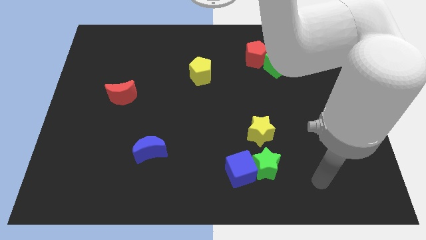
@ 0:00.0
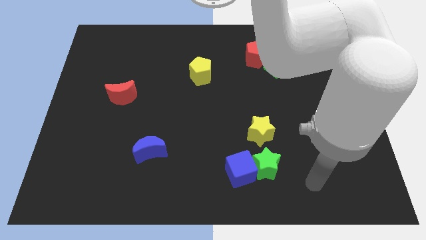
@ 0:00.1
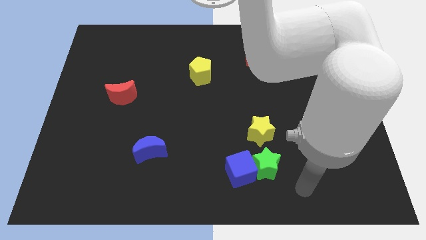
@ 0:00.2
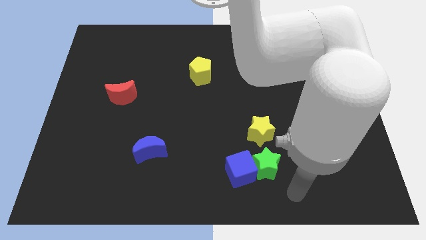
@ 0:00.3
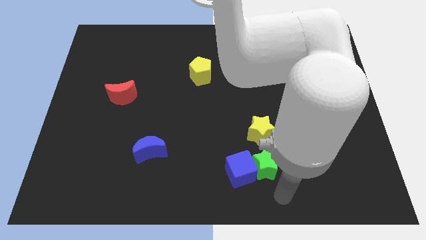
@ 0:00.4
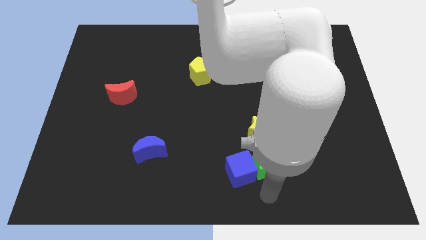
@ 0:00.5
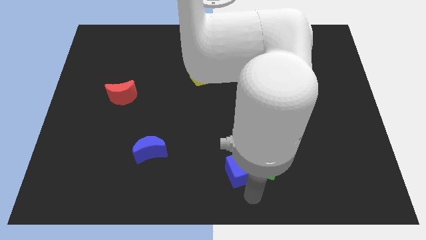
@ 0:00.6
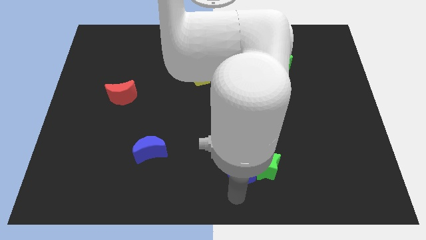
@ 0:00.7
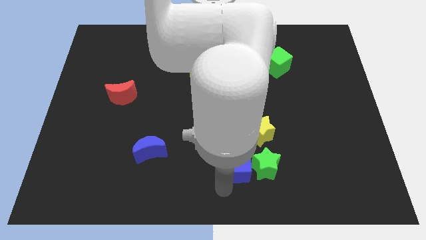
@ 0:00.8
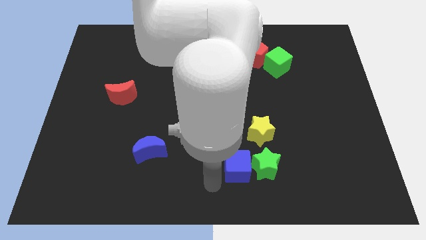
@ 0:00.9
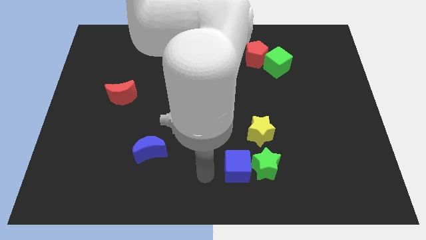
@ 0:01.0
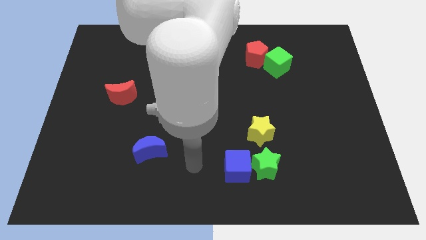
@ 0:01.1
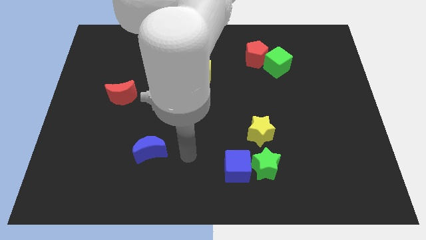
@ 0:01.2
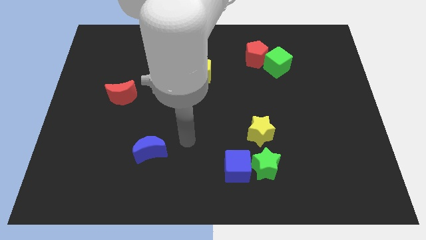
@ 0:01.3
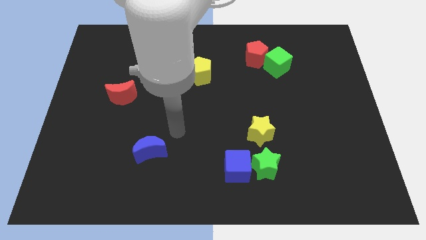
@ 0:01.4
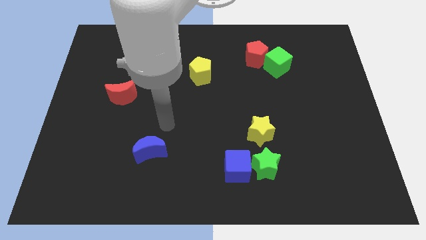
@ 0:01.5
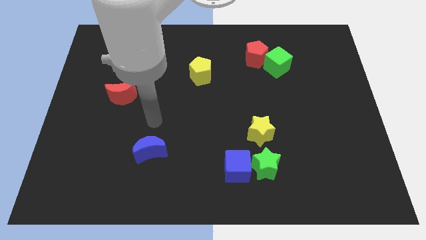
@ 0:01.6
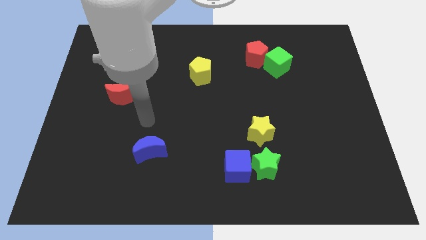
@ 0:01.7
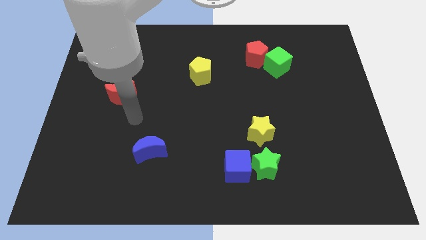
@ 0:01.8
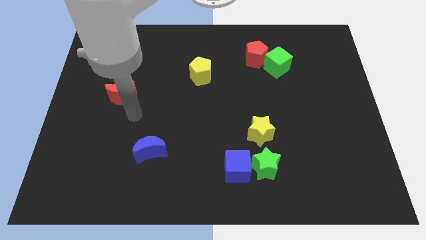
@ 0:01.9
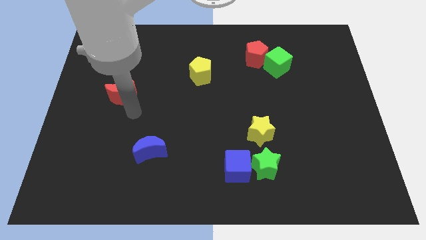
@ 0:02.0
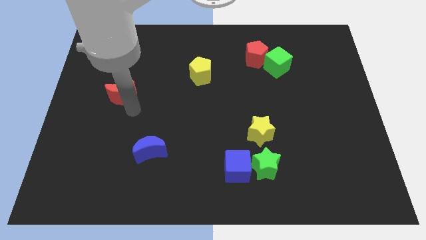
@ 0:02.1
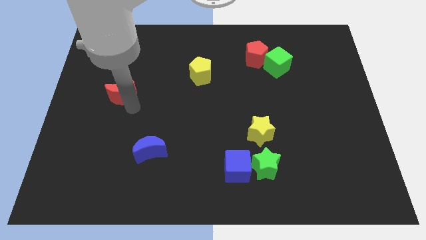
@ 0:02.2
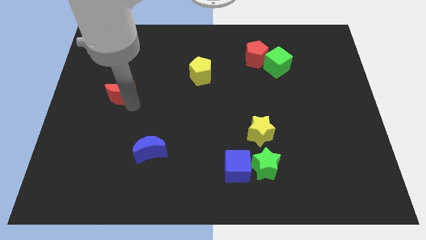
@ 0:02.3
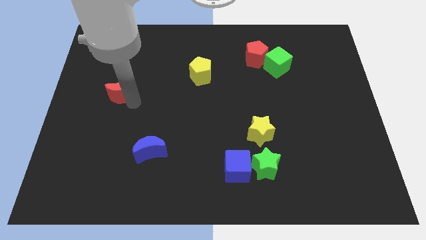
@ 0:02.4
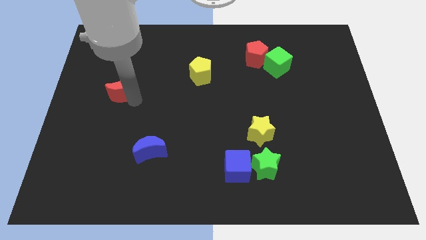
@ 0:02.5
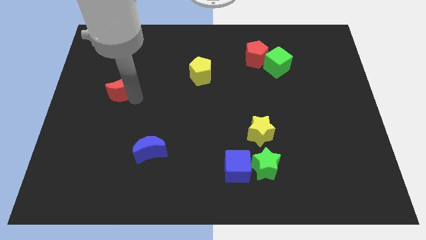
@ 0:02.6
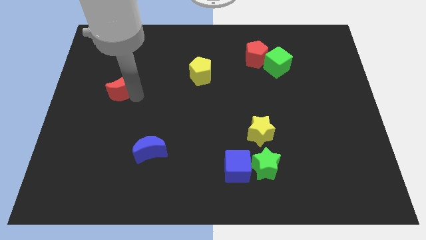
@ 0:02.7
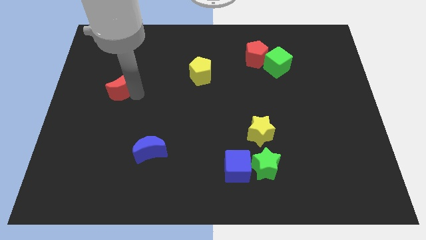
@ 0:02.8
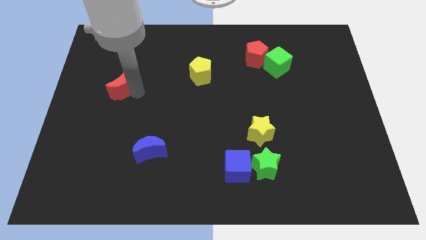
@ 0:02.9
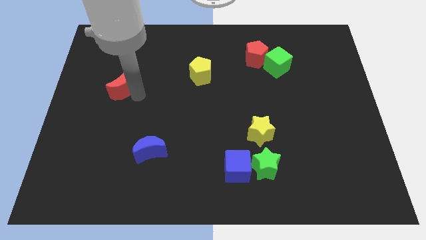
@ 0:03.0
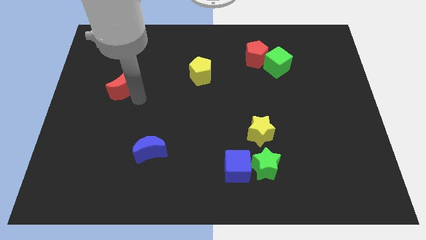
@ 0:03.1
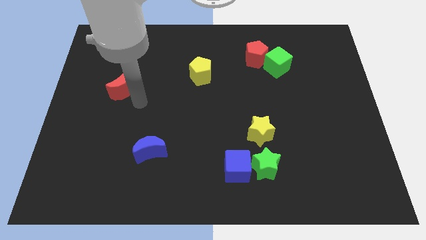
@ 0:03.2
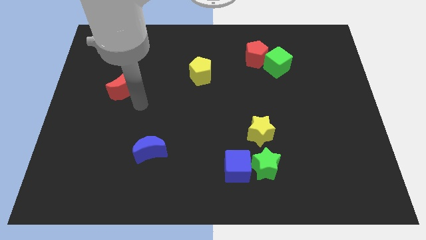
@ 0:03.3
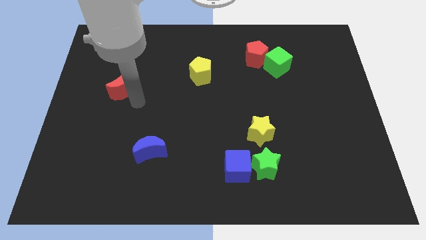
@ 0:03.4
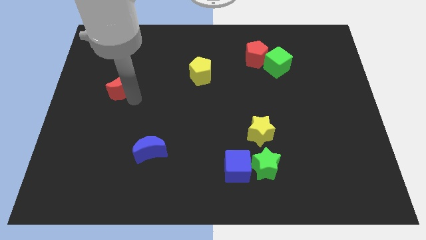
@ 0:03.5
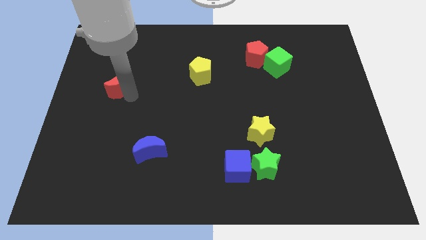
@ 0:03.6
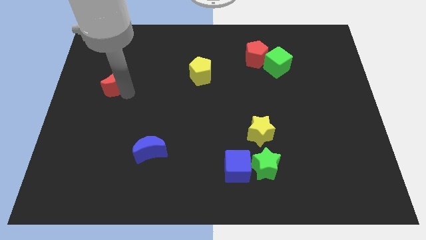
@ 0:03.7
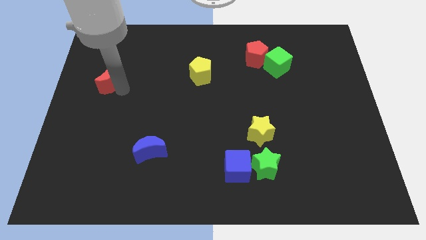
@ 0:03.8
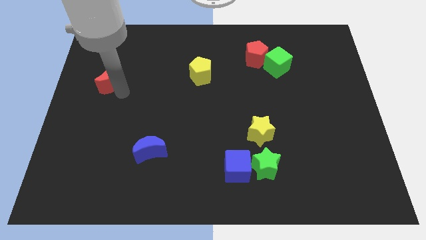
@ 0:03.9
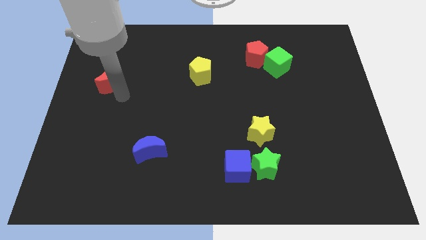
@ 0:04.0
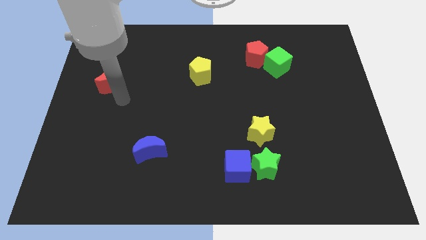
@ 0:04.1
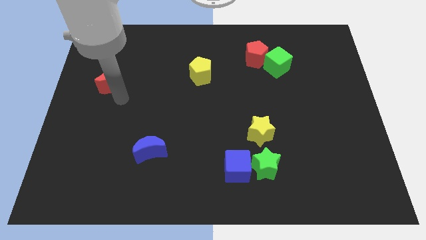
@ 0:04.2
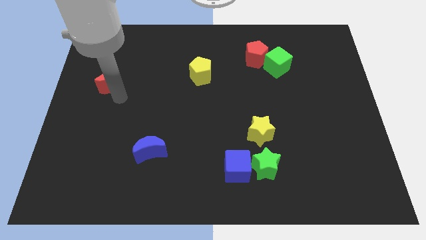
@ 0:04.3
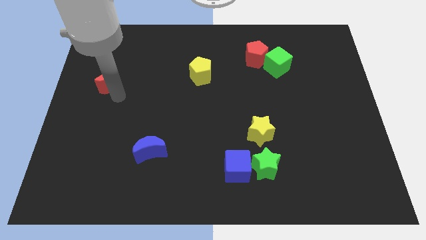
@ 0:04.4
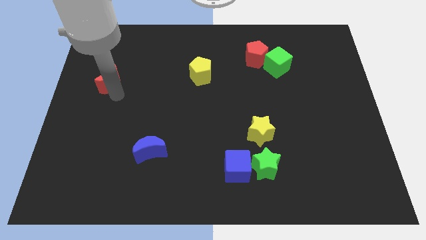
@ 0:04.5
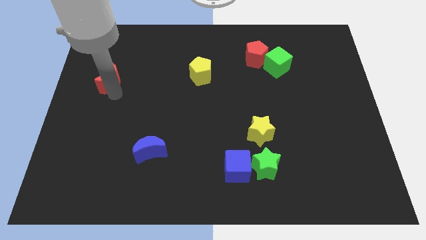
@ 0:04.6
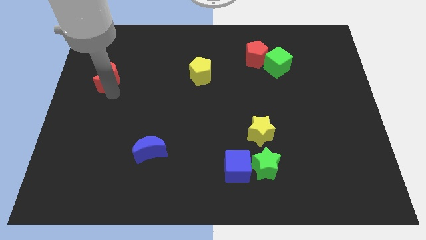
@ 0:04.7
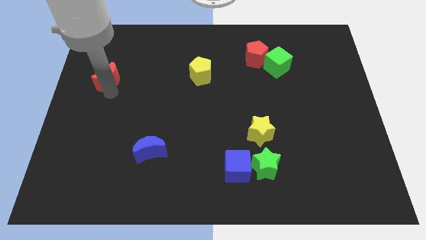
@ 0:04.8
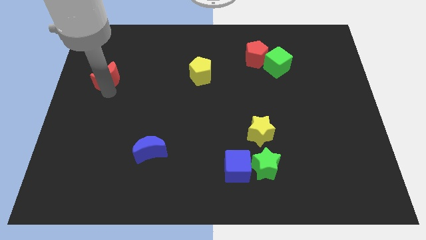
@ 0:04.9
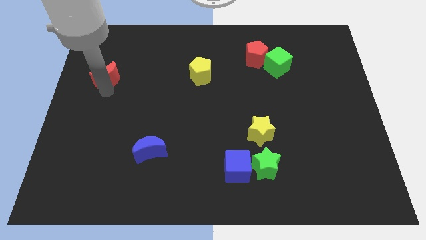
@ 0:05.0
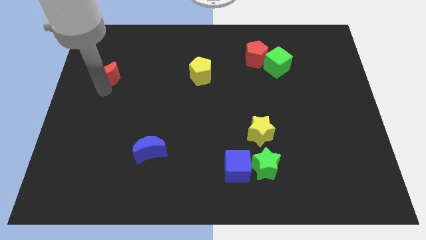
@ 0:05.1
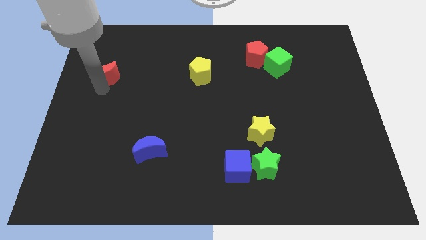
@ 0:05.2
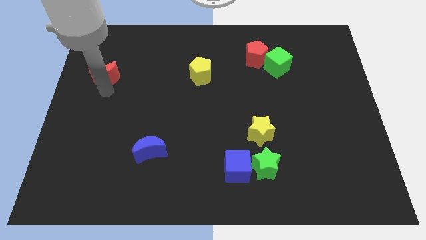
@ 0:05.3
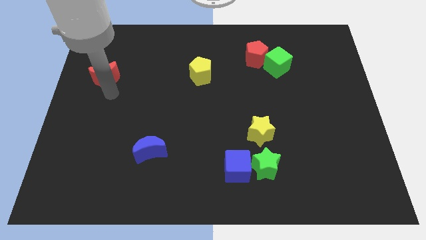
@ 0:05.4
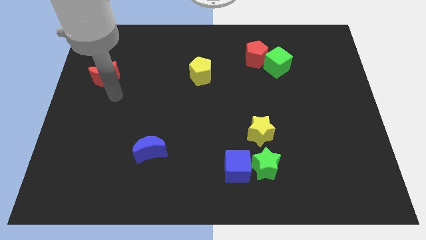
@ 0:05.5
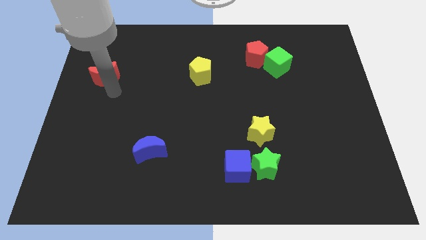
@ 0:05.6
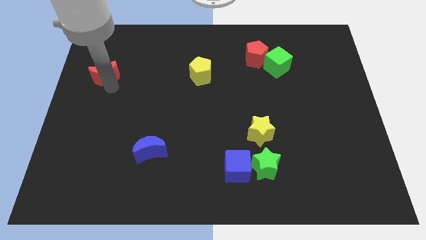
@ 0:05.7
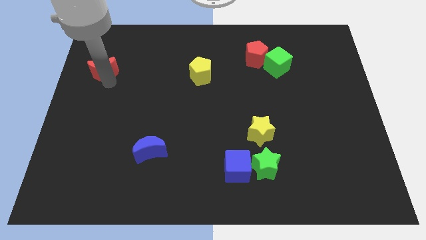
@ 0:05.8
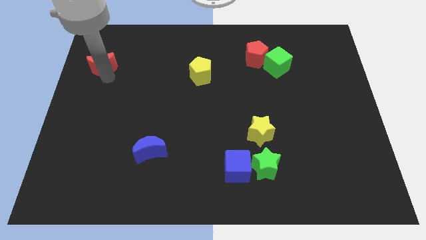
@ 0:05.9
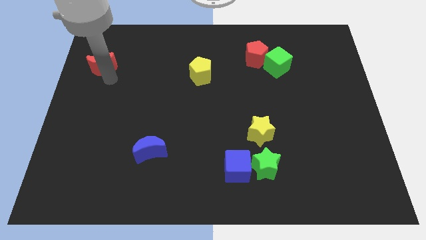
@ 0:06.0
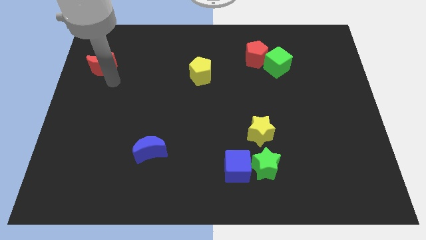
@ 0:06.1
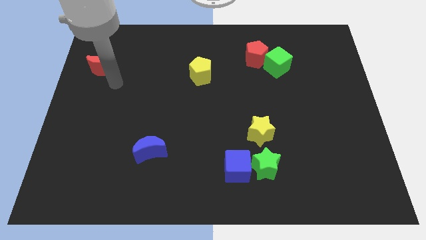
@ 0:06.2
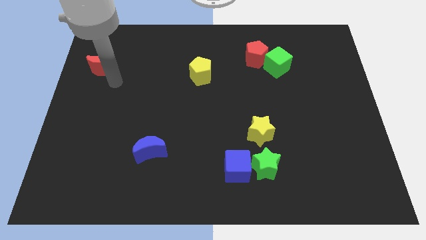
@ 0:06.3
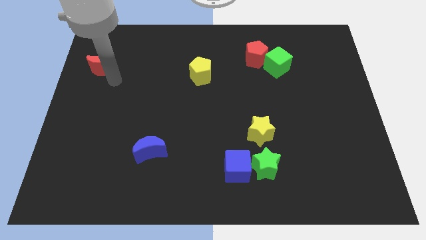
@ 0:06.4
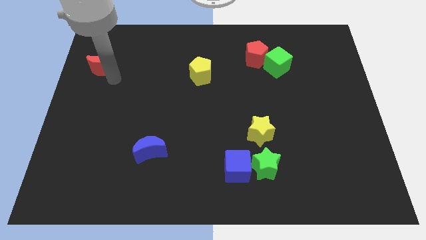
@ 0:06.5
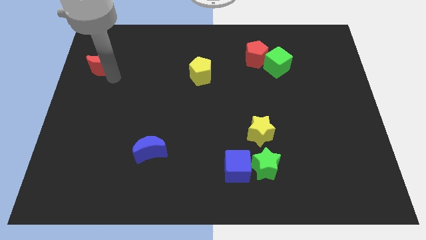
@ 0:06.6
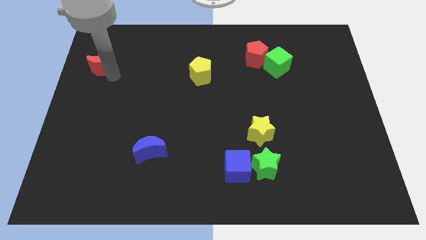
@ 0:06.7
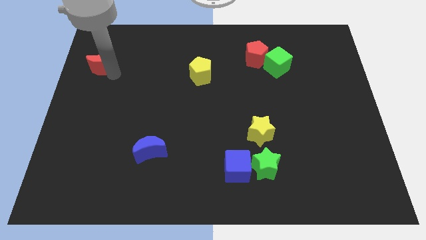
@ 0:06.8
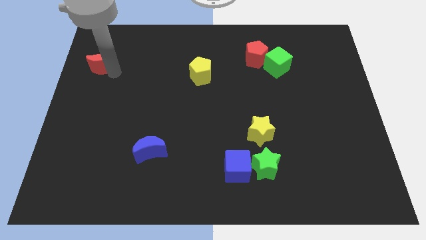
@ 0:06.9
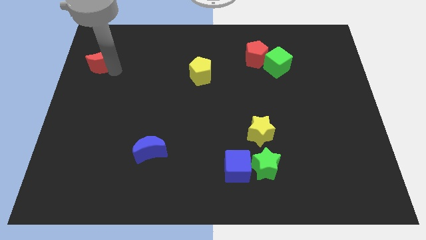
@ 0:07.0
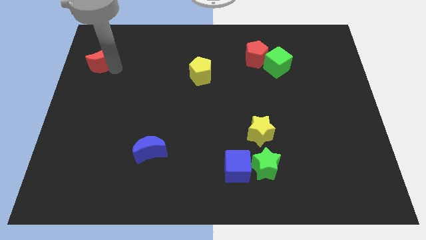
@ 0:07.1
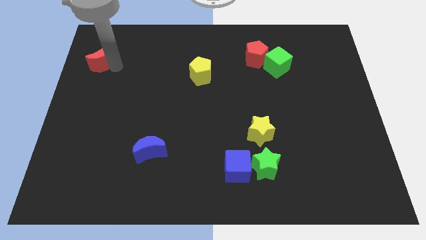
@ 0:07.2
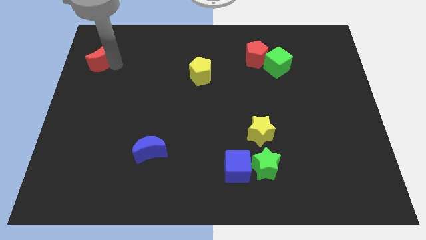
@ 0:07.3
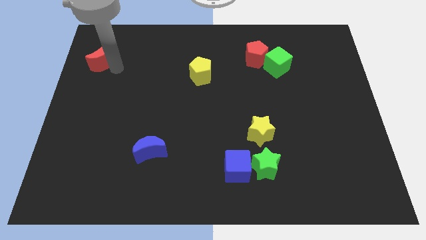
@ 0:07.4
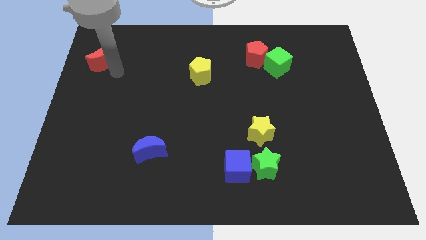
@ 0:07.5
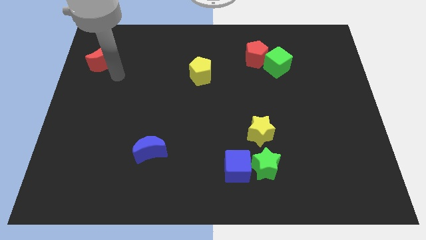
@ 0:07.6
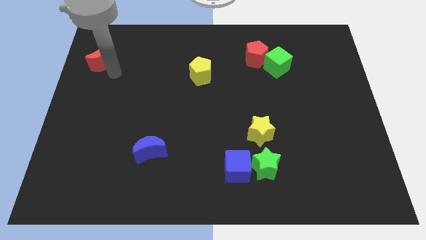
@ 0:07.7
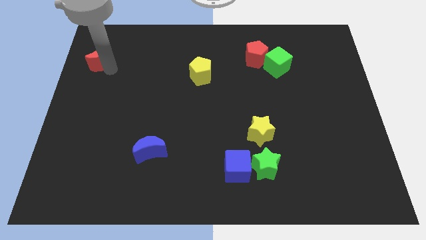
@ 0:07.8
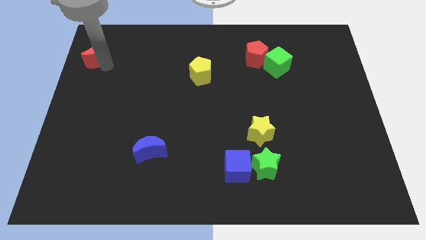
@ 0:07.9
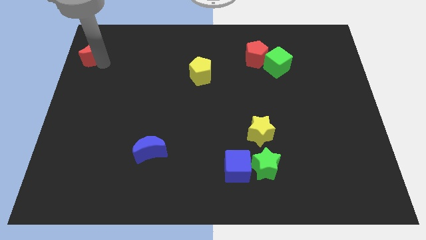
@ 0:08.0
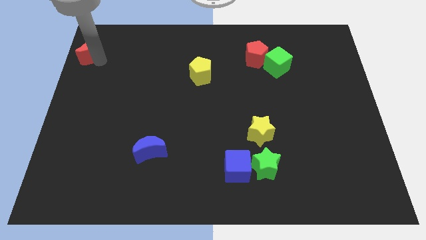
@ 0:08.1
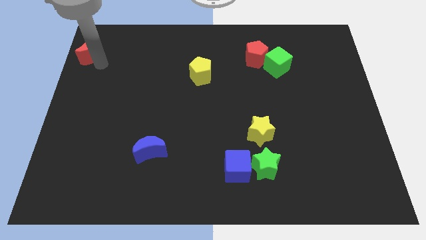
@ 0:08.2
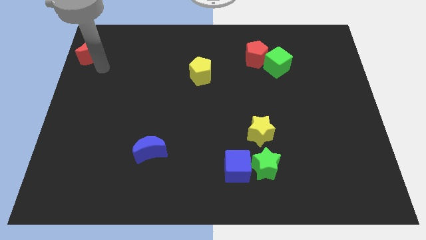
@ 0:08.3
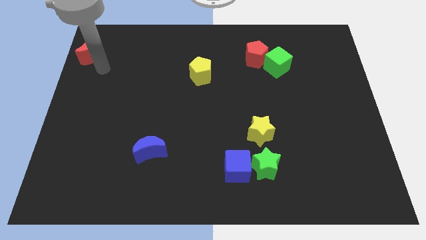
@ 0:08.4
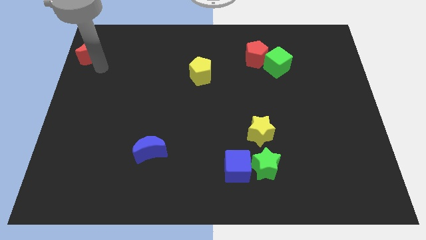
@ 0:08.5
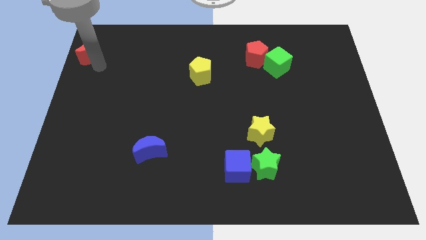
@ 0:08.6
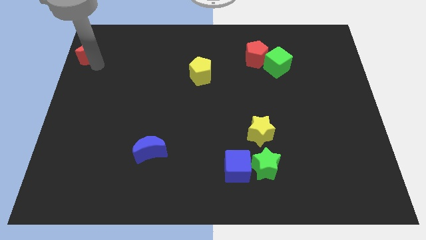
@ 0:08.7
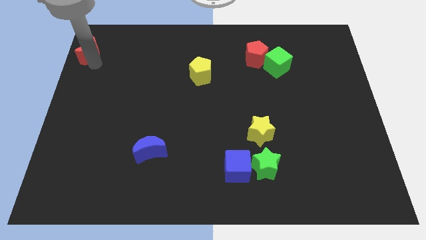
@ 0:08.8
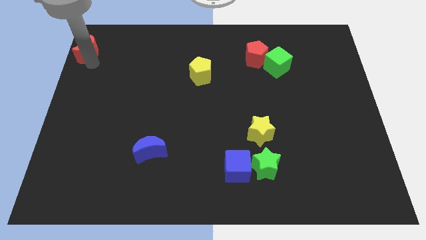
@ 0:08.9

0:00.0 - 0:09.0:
move the red moon to the top left
